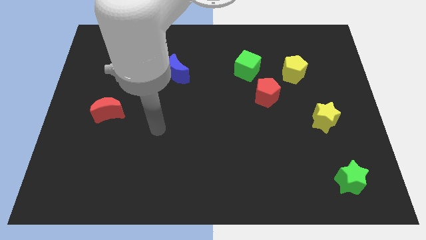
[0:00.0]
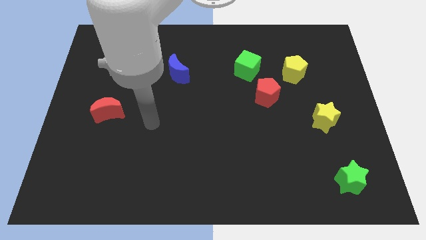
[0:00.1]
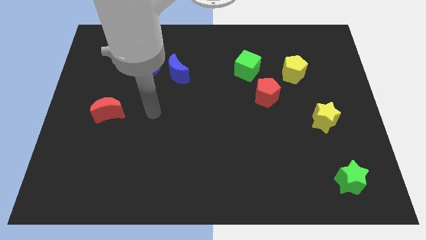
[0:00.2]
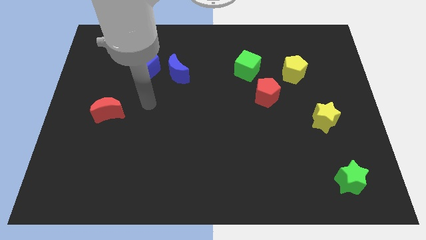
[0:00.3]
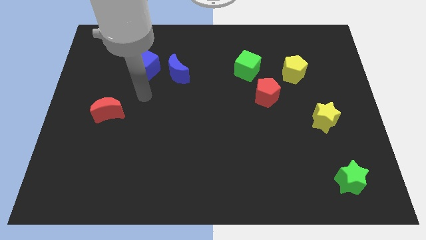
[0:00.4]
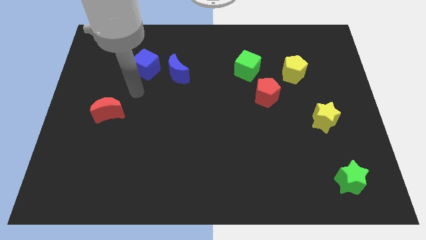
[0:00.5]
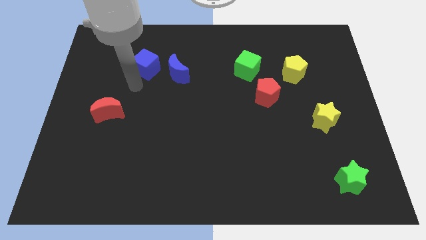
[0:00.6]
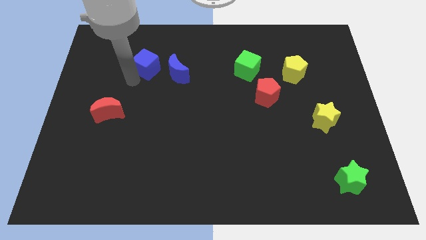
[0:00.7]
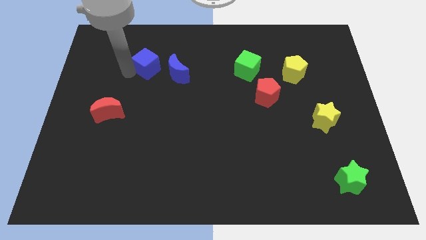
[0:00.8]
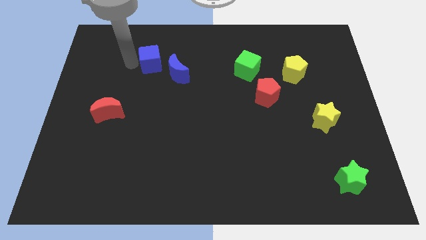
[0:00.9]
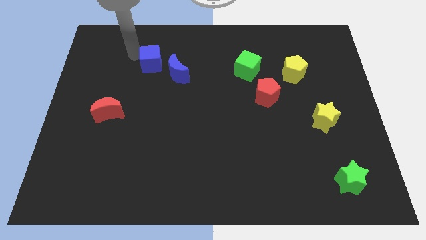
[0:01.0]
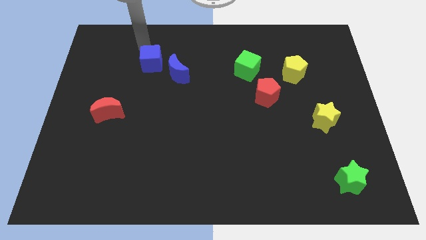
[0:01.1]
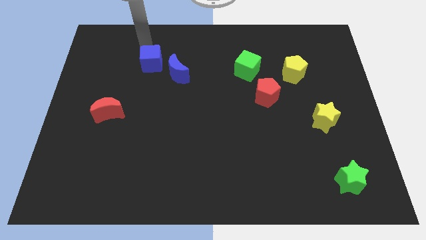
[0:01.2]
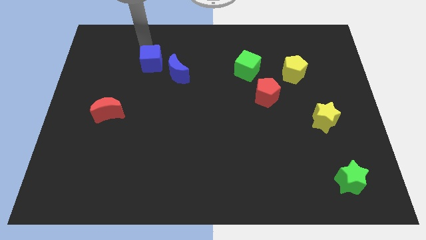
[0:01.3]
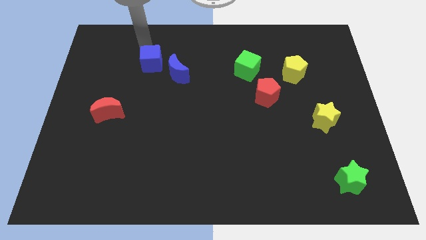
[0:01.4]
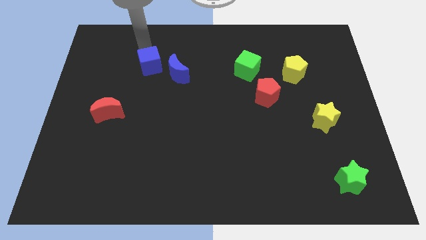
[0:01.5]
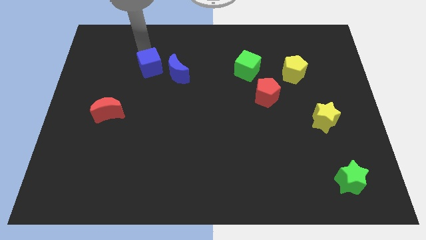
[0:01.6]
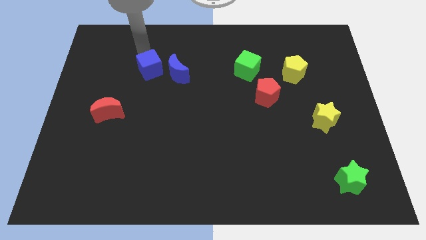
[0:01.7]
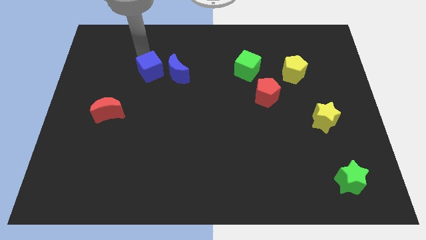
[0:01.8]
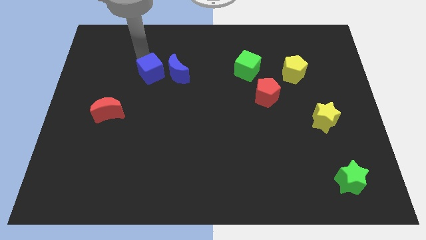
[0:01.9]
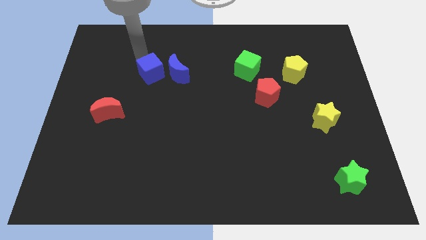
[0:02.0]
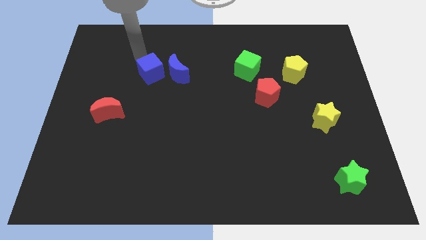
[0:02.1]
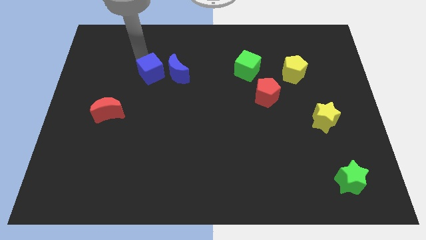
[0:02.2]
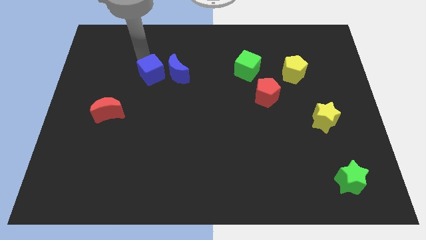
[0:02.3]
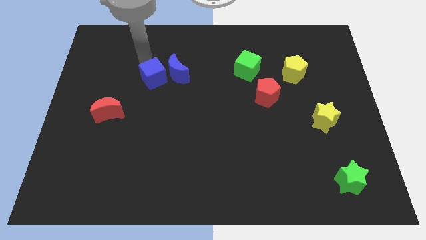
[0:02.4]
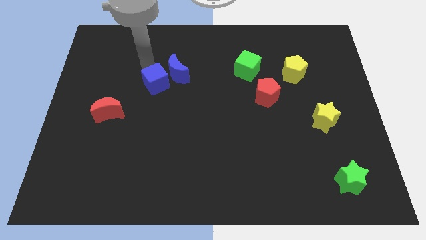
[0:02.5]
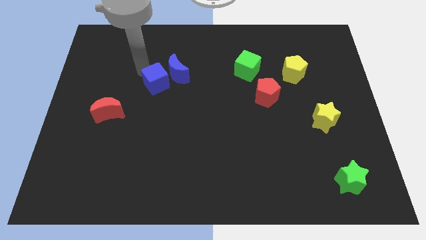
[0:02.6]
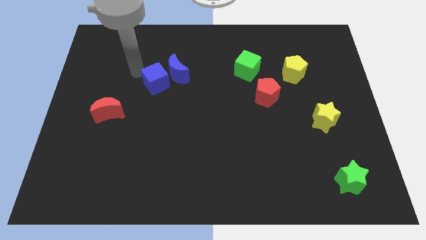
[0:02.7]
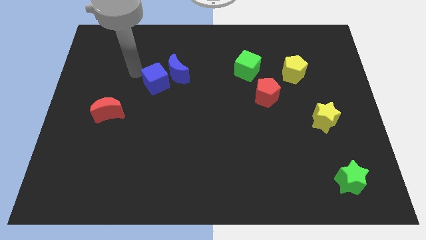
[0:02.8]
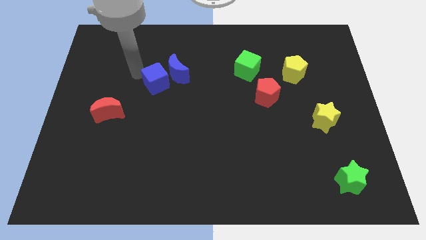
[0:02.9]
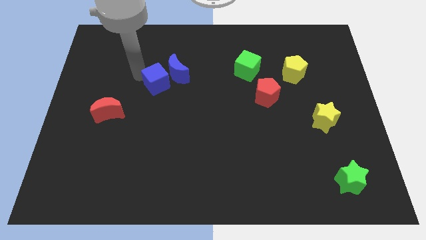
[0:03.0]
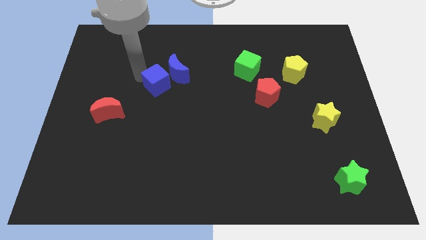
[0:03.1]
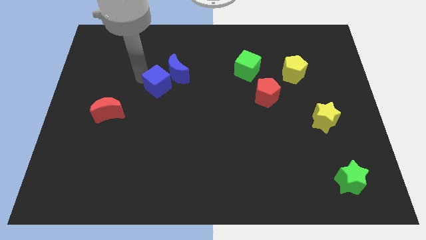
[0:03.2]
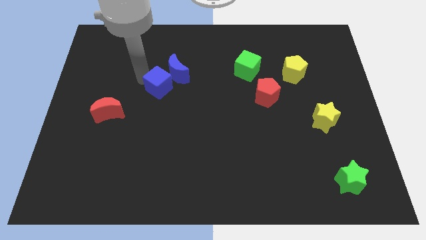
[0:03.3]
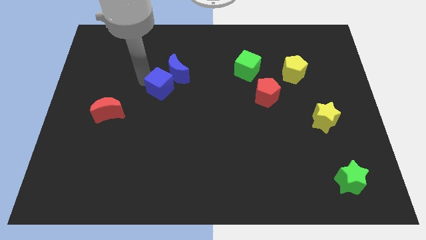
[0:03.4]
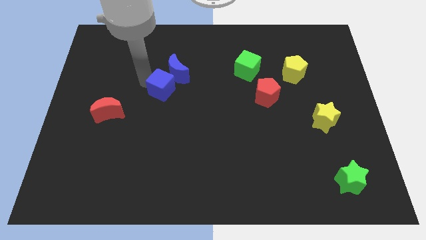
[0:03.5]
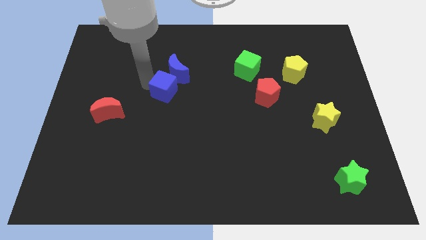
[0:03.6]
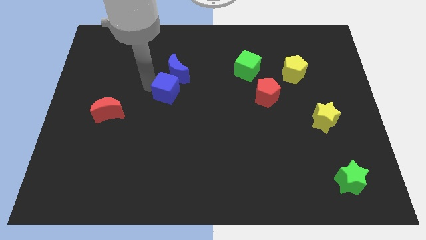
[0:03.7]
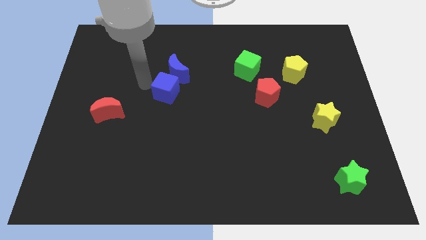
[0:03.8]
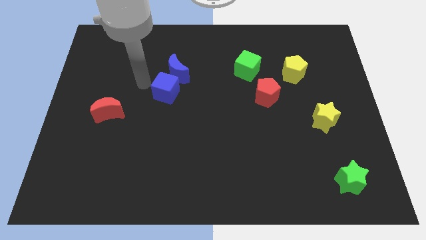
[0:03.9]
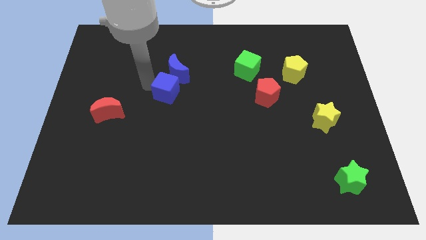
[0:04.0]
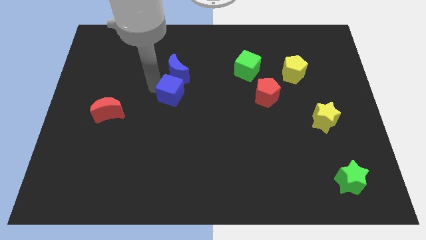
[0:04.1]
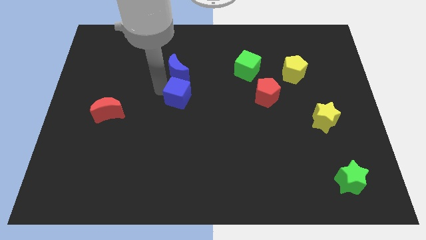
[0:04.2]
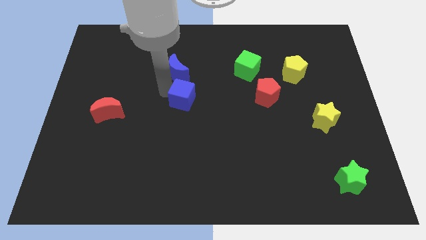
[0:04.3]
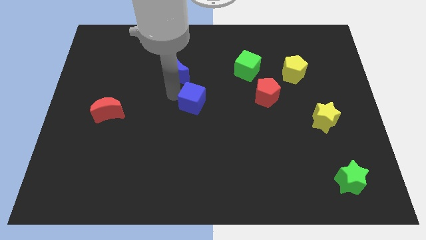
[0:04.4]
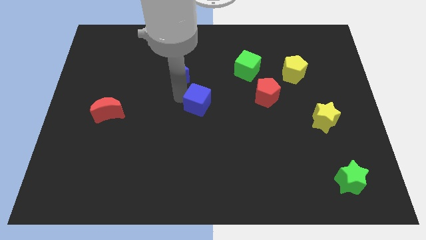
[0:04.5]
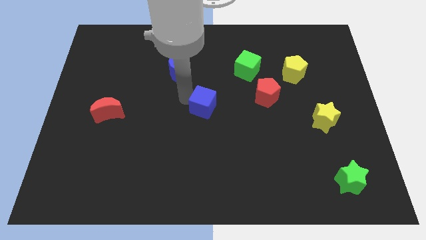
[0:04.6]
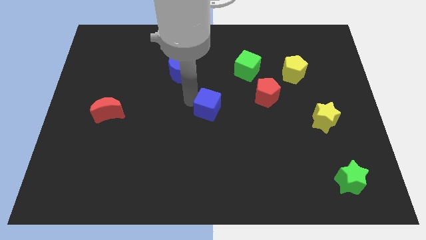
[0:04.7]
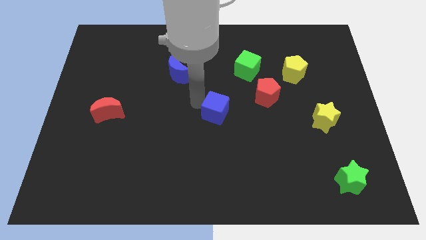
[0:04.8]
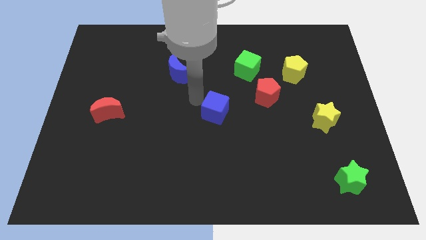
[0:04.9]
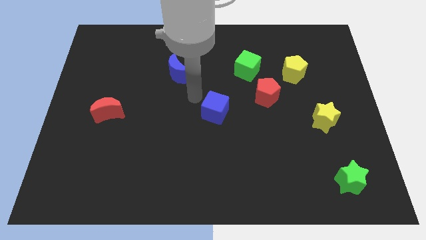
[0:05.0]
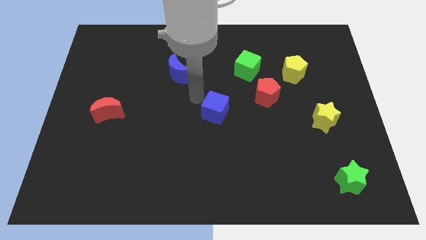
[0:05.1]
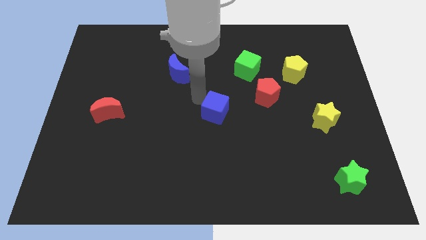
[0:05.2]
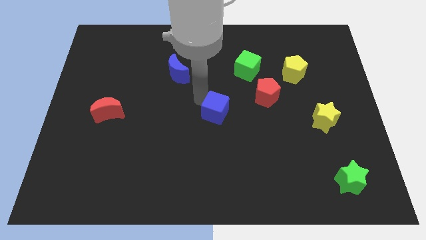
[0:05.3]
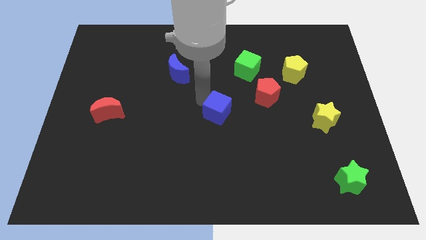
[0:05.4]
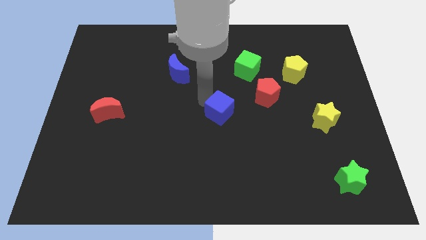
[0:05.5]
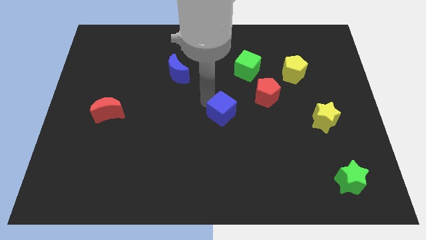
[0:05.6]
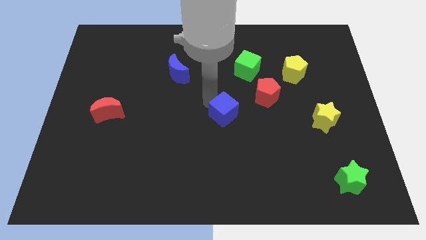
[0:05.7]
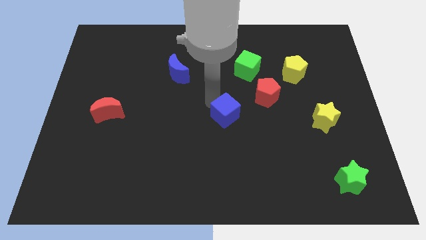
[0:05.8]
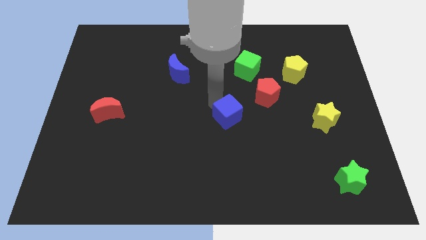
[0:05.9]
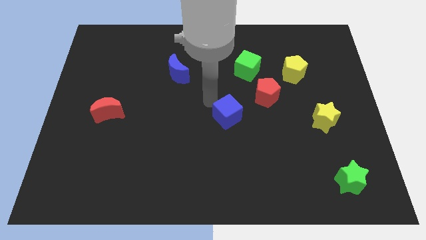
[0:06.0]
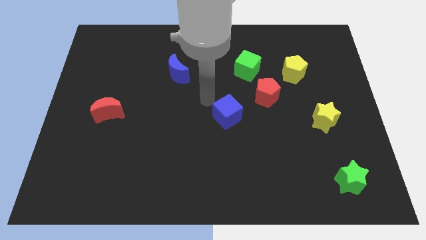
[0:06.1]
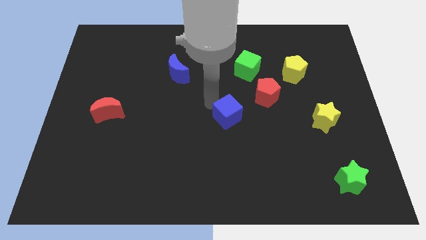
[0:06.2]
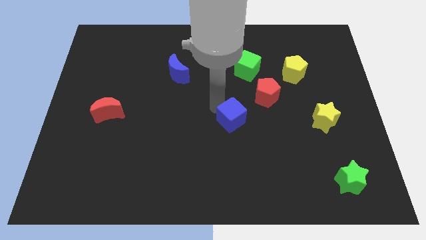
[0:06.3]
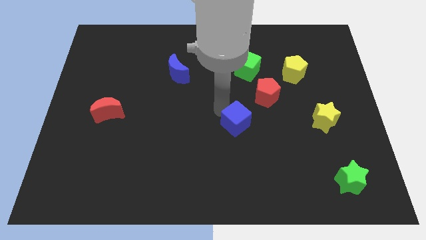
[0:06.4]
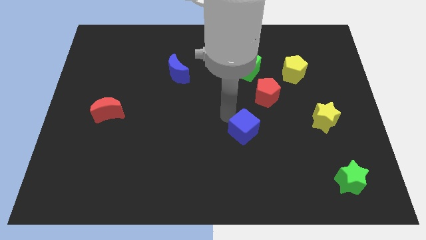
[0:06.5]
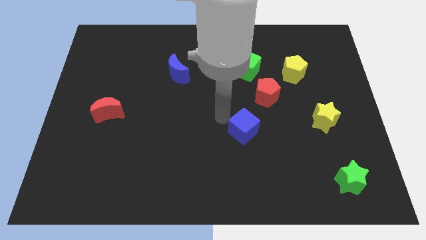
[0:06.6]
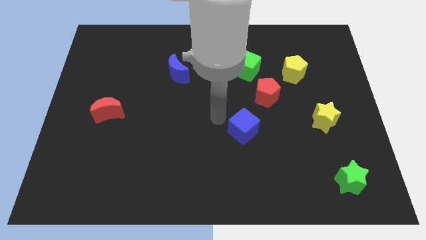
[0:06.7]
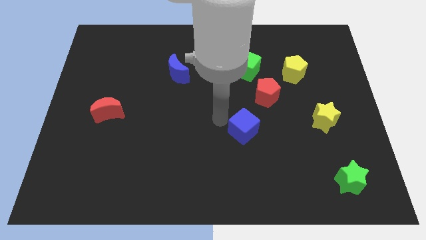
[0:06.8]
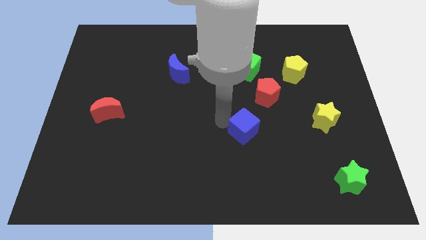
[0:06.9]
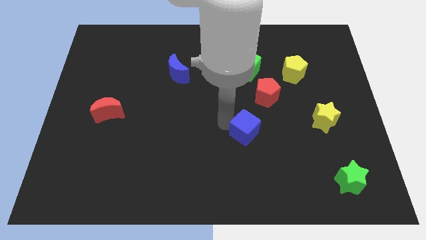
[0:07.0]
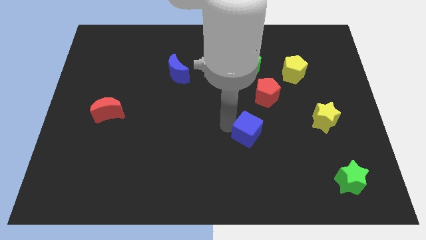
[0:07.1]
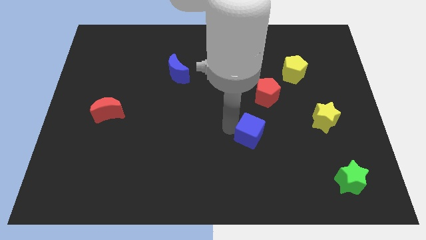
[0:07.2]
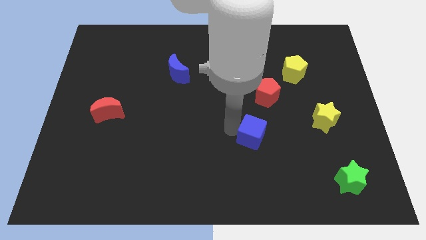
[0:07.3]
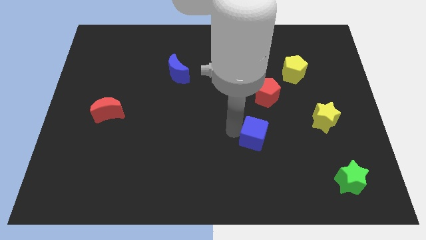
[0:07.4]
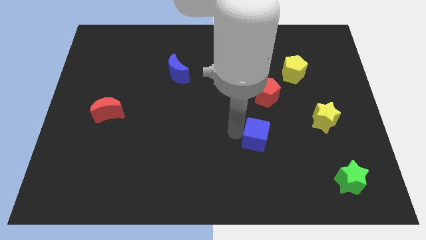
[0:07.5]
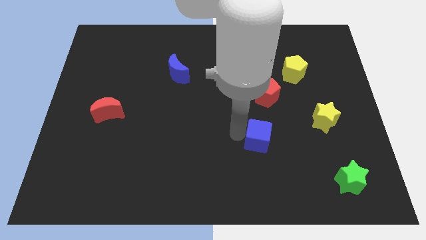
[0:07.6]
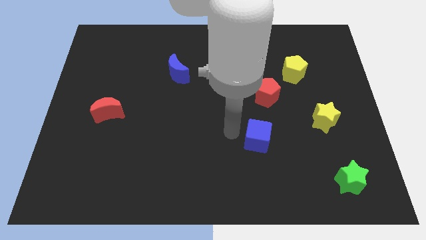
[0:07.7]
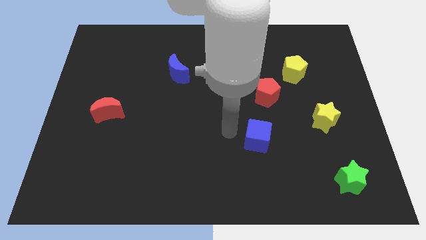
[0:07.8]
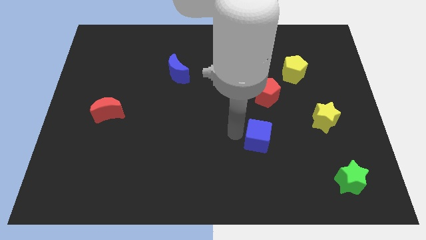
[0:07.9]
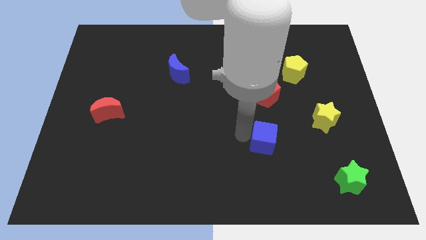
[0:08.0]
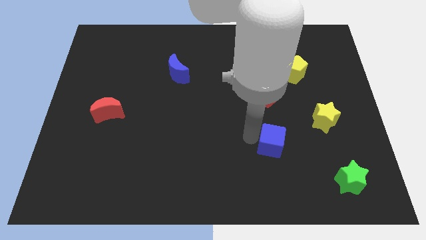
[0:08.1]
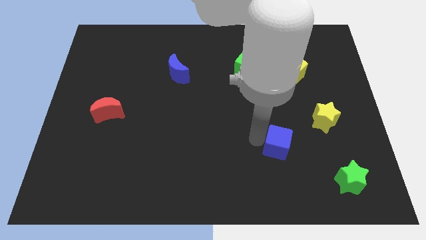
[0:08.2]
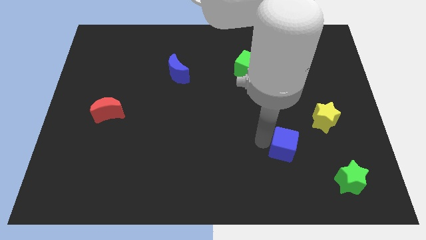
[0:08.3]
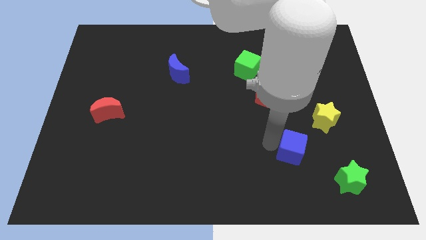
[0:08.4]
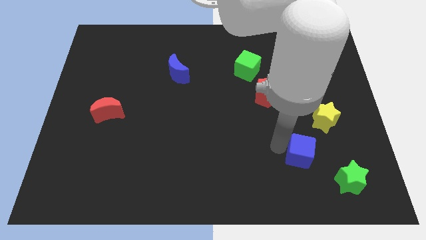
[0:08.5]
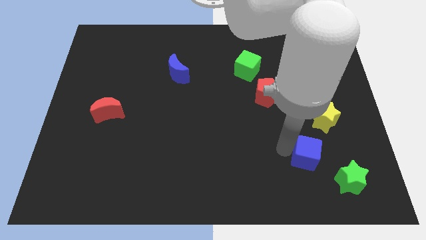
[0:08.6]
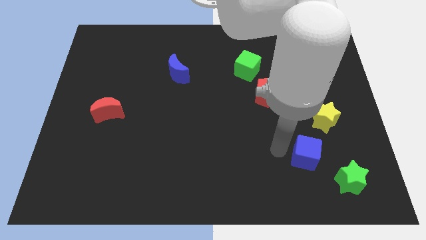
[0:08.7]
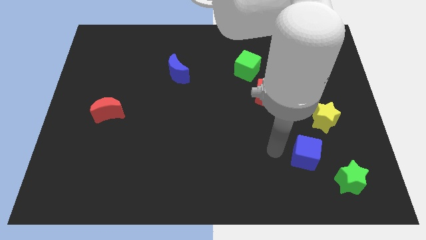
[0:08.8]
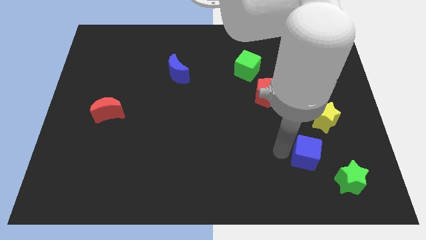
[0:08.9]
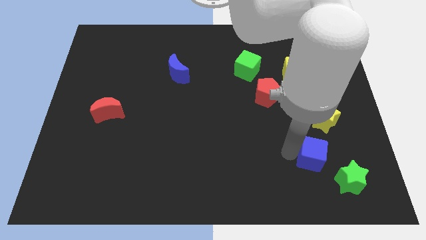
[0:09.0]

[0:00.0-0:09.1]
put the blue cube below the yellow star
